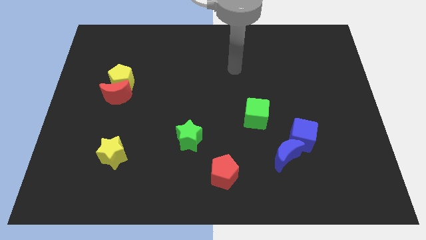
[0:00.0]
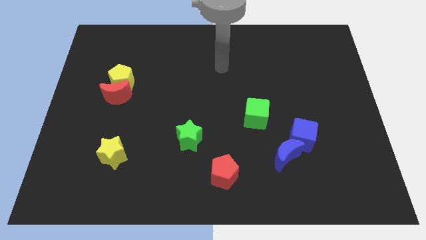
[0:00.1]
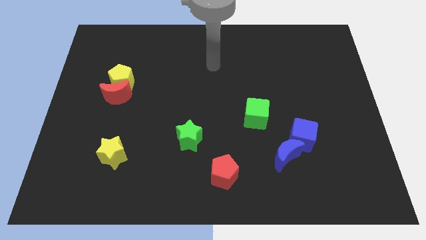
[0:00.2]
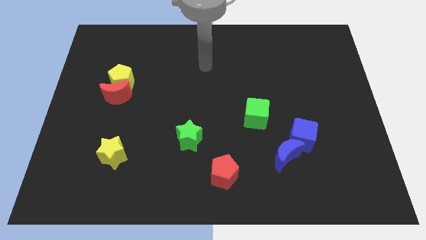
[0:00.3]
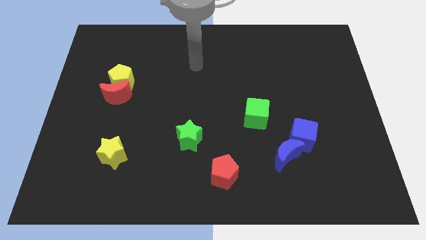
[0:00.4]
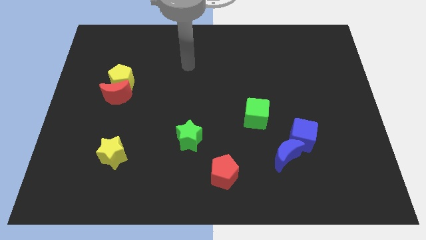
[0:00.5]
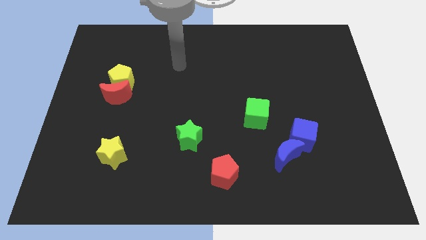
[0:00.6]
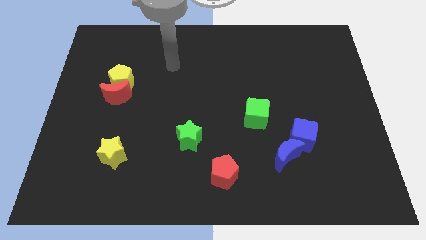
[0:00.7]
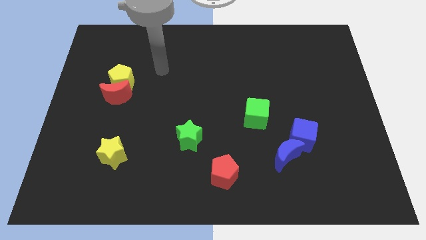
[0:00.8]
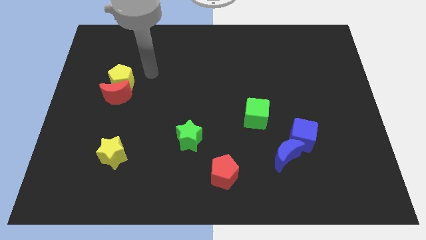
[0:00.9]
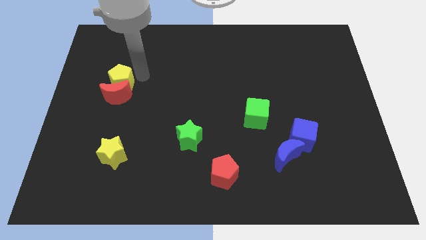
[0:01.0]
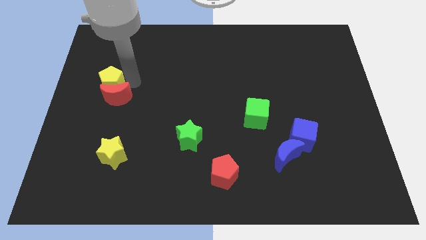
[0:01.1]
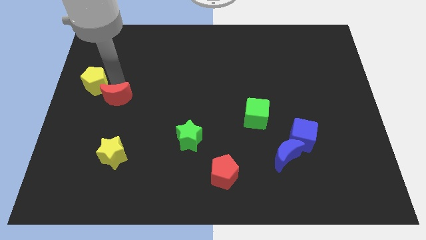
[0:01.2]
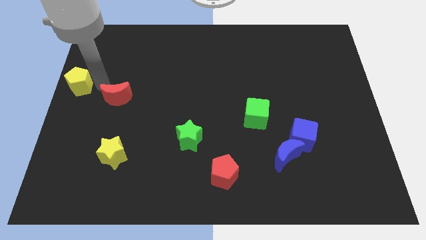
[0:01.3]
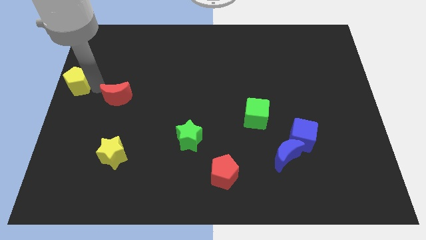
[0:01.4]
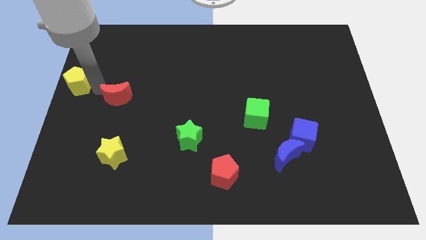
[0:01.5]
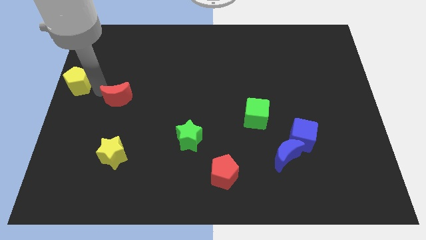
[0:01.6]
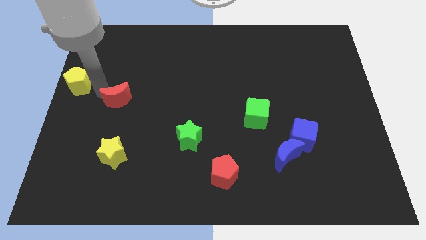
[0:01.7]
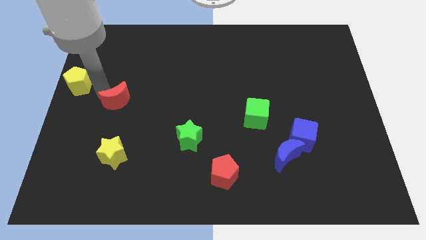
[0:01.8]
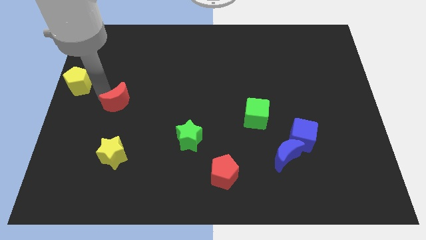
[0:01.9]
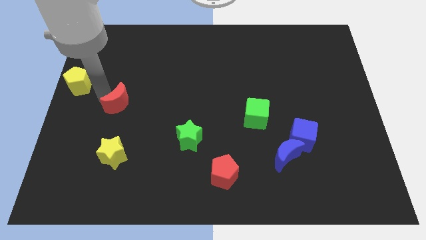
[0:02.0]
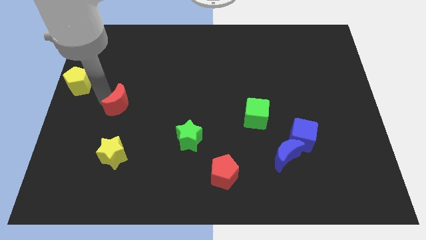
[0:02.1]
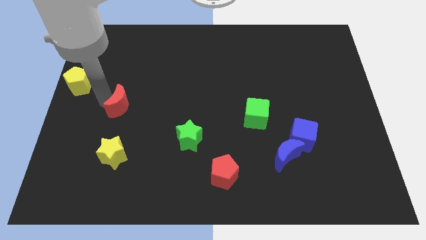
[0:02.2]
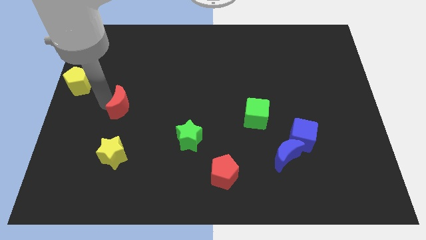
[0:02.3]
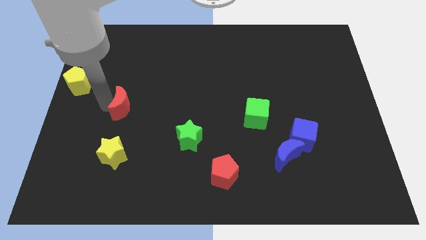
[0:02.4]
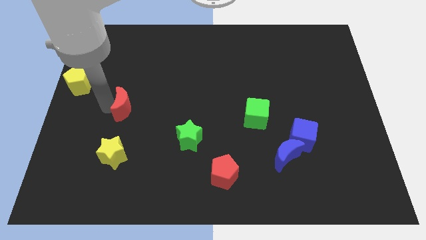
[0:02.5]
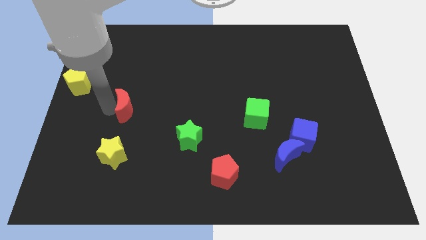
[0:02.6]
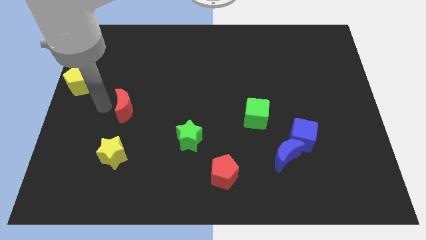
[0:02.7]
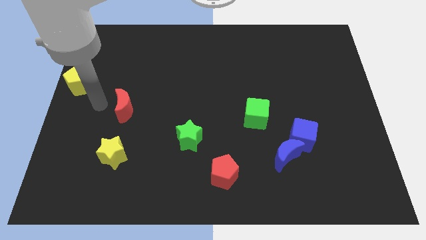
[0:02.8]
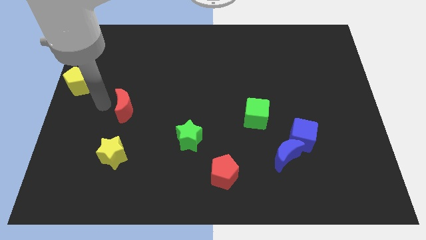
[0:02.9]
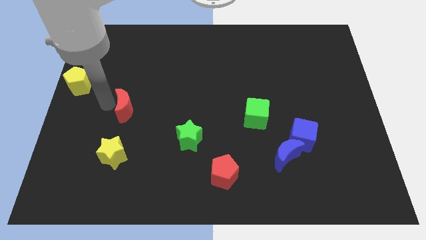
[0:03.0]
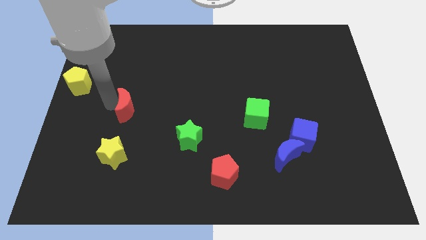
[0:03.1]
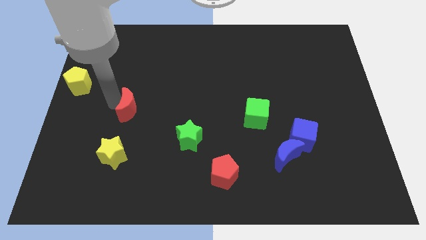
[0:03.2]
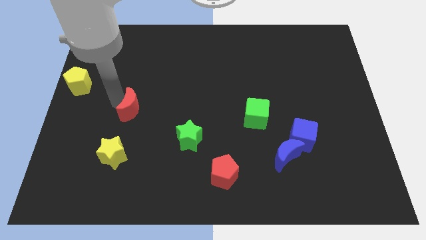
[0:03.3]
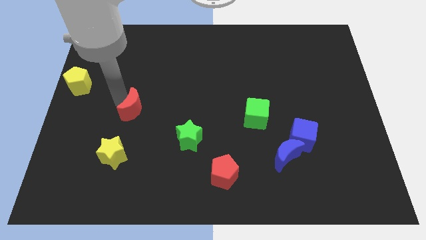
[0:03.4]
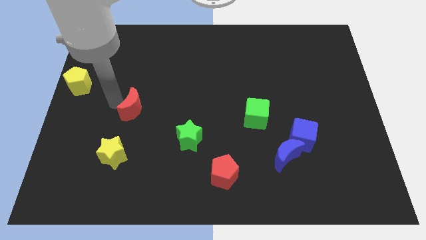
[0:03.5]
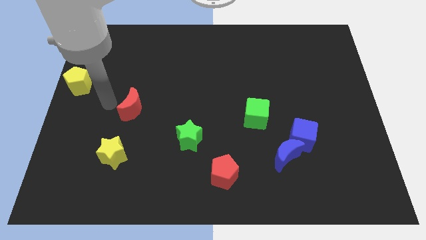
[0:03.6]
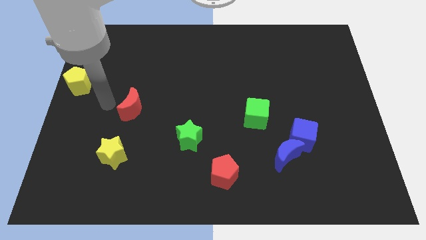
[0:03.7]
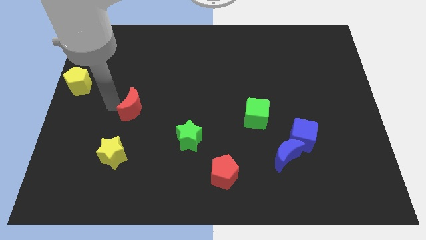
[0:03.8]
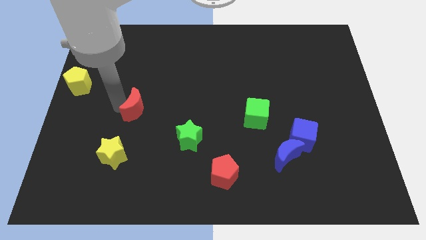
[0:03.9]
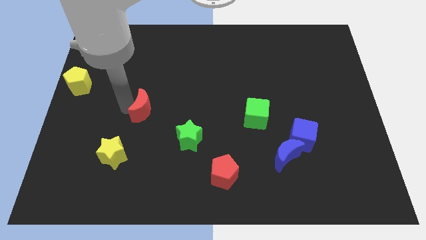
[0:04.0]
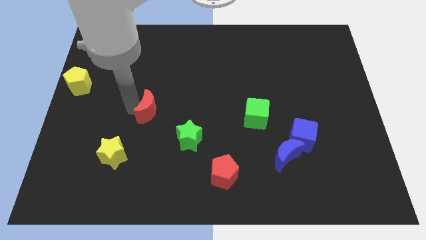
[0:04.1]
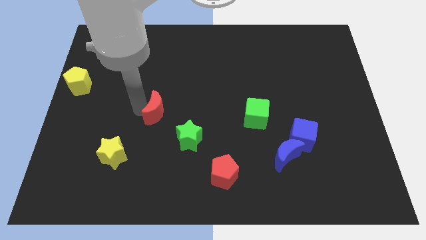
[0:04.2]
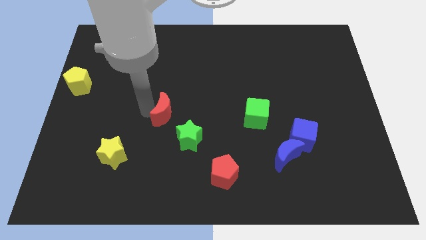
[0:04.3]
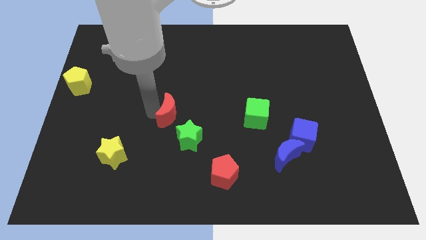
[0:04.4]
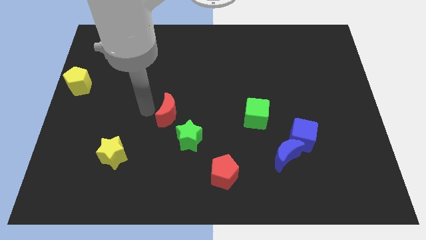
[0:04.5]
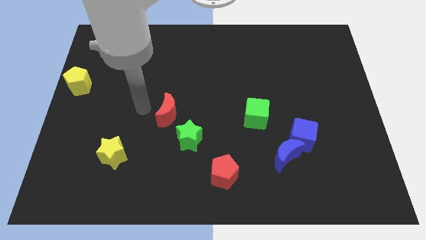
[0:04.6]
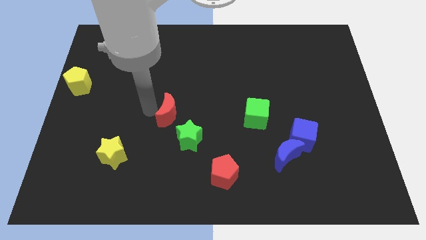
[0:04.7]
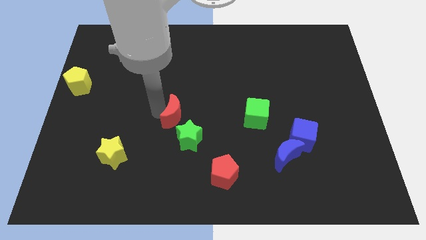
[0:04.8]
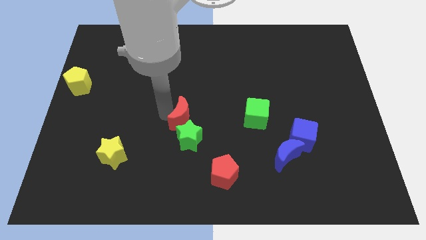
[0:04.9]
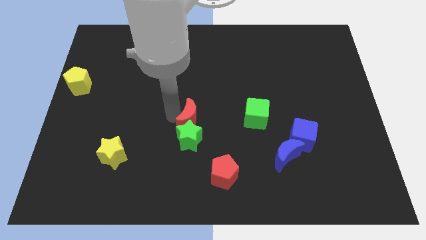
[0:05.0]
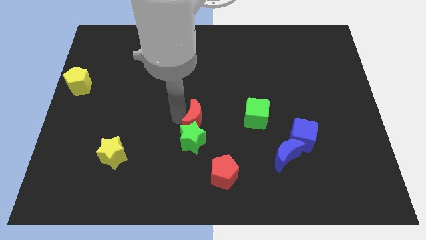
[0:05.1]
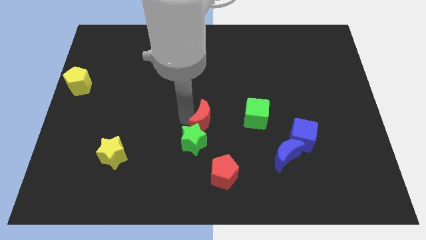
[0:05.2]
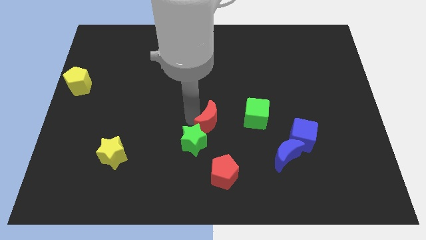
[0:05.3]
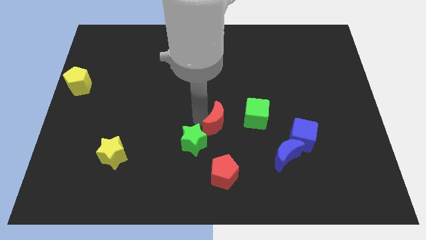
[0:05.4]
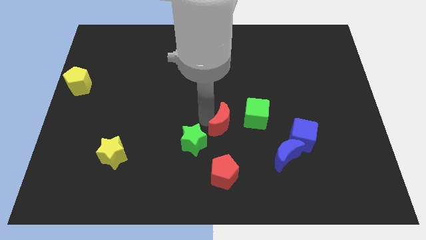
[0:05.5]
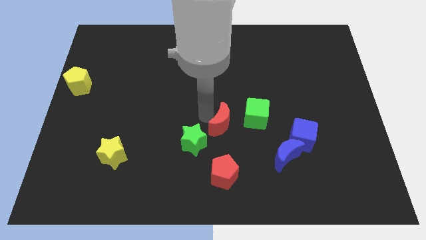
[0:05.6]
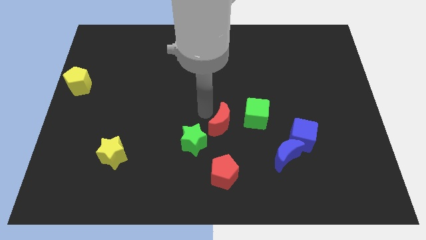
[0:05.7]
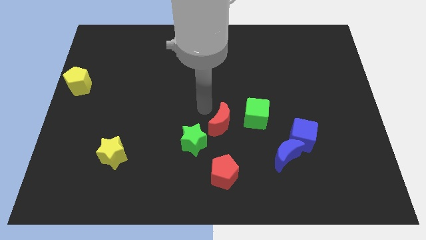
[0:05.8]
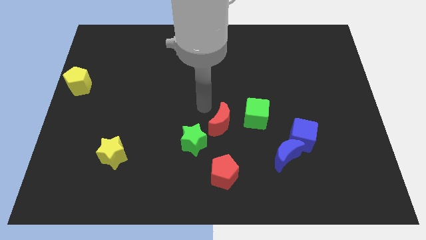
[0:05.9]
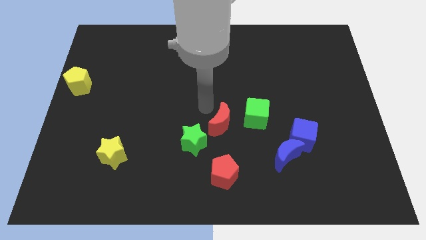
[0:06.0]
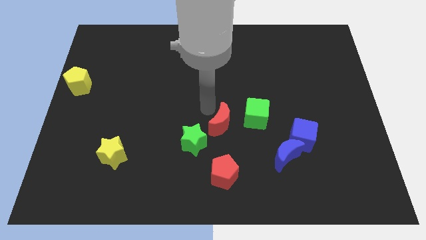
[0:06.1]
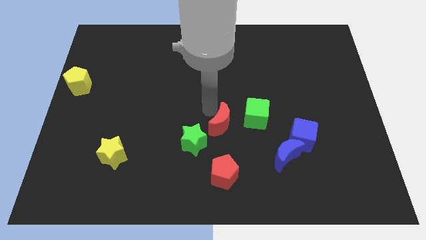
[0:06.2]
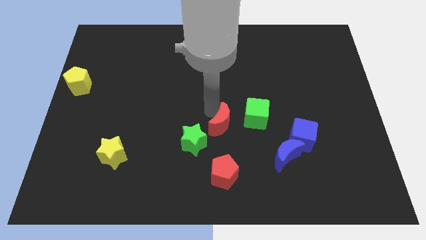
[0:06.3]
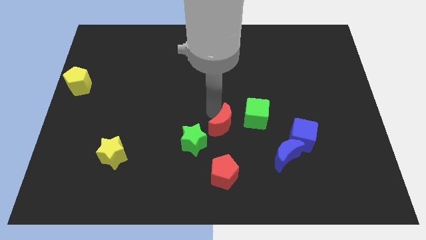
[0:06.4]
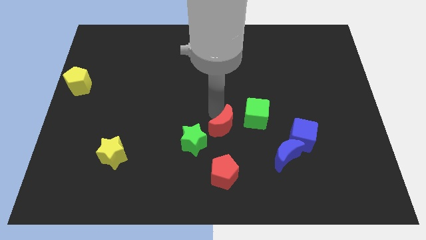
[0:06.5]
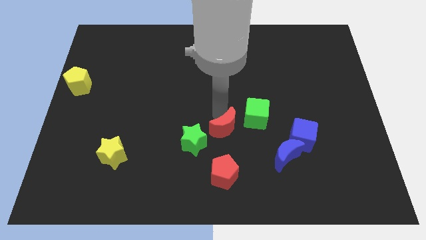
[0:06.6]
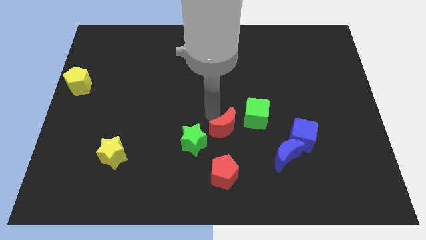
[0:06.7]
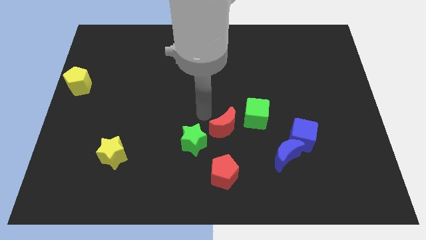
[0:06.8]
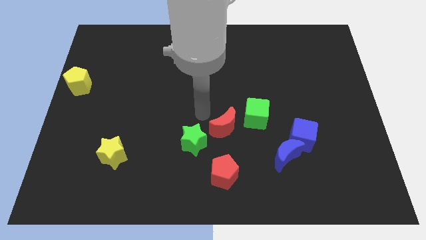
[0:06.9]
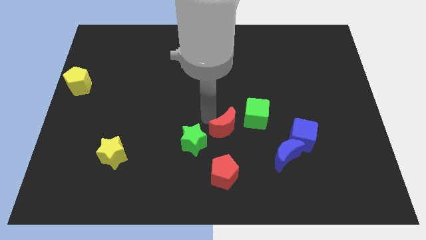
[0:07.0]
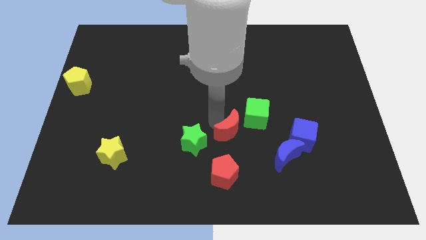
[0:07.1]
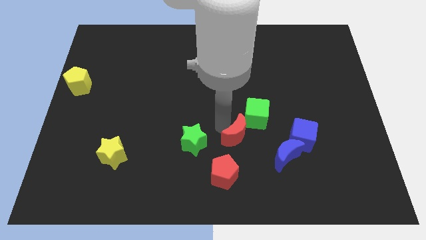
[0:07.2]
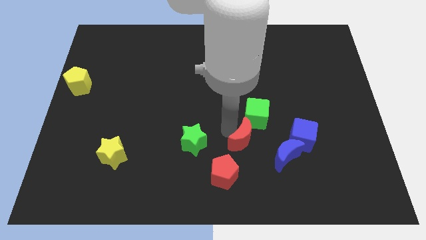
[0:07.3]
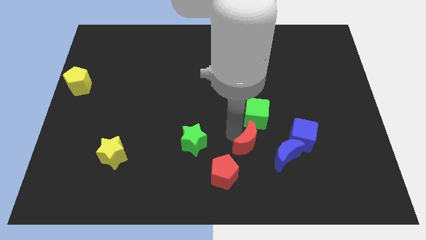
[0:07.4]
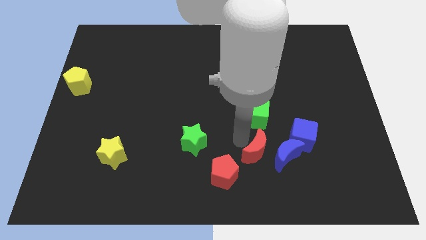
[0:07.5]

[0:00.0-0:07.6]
push the red moon towards the blue moon
